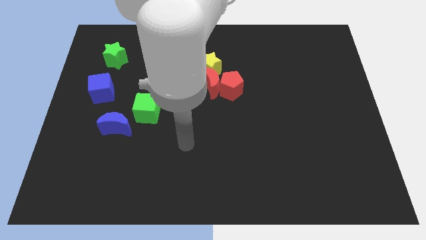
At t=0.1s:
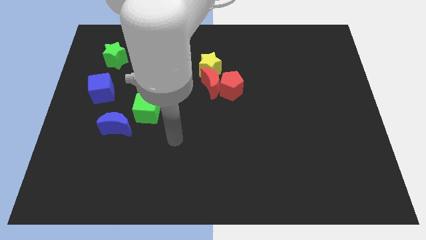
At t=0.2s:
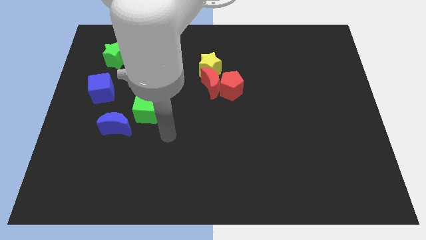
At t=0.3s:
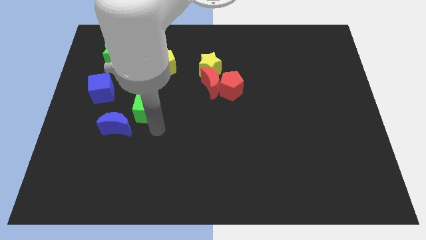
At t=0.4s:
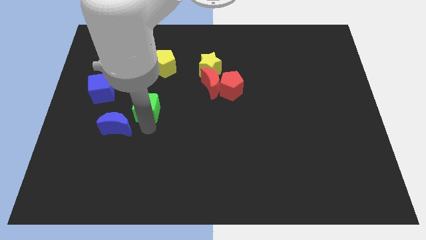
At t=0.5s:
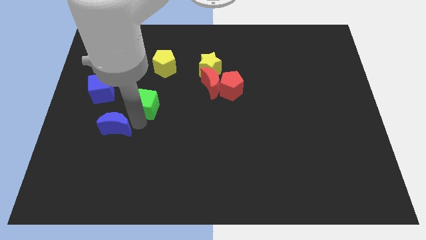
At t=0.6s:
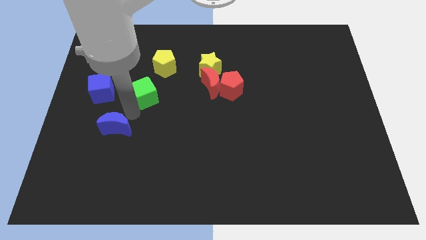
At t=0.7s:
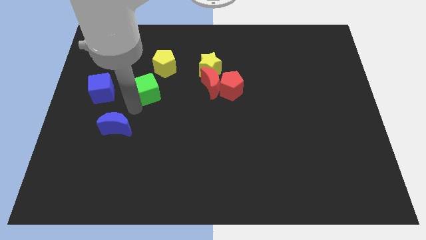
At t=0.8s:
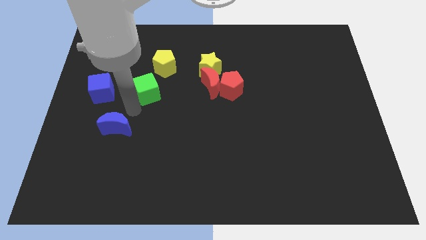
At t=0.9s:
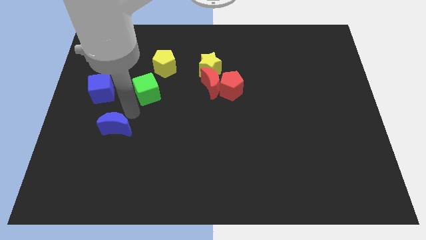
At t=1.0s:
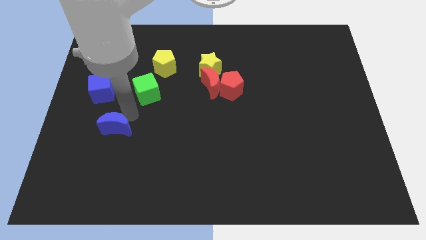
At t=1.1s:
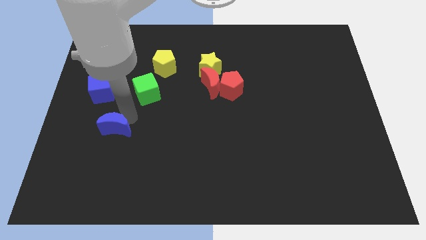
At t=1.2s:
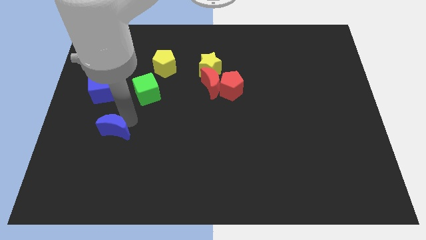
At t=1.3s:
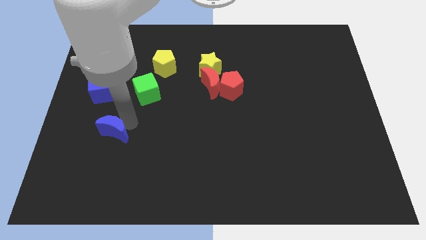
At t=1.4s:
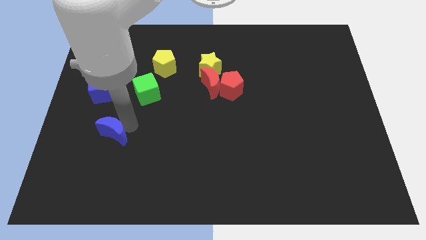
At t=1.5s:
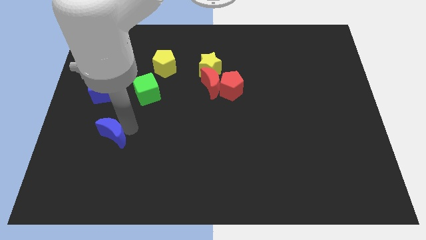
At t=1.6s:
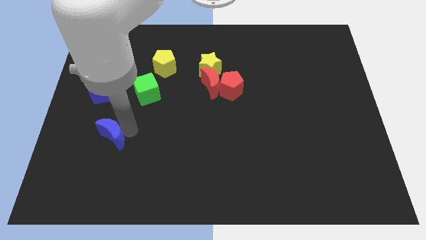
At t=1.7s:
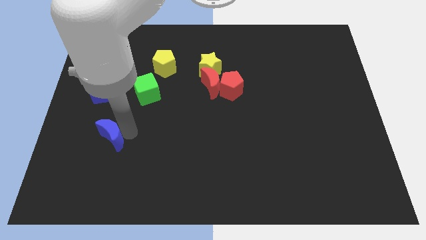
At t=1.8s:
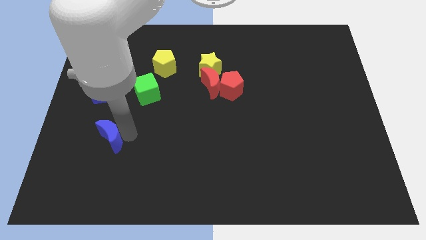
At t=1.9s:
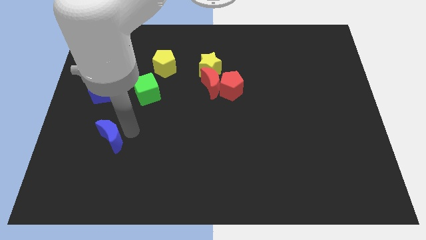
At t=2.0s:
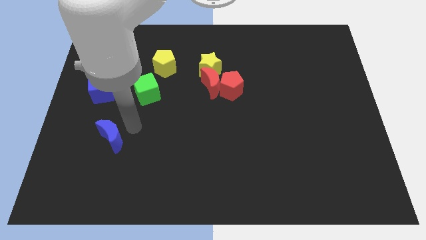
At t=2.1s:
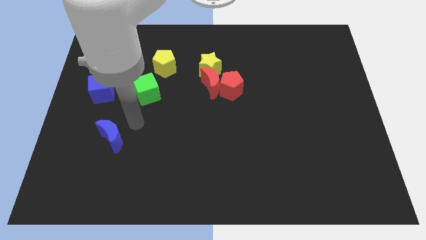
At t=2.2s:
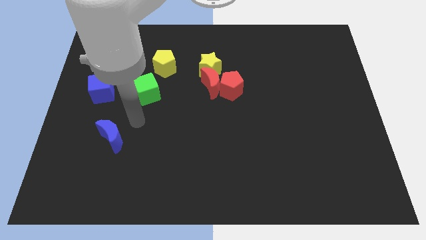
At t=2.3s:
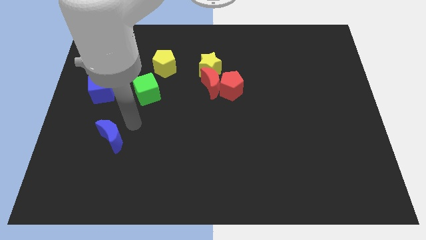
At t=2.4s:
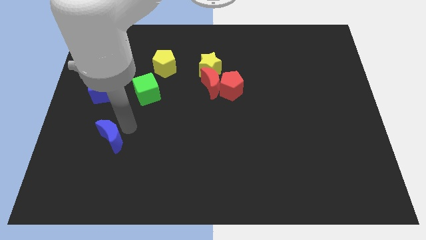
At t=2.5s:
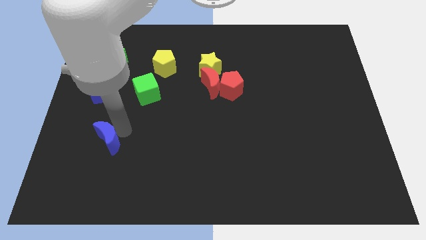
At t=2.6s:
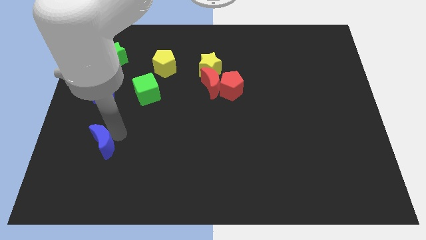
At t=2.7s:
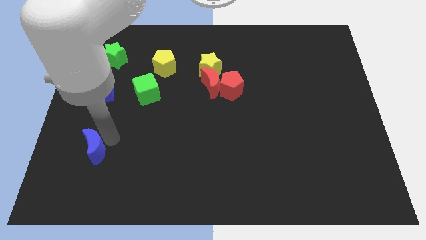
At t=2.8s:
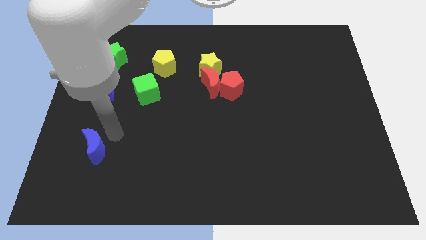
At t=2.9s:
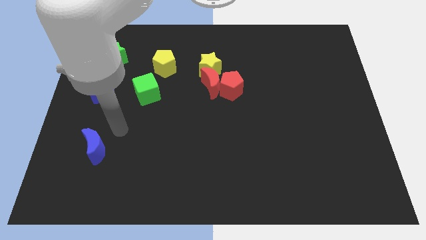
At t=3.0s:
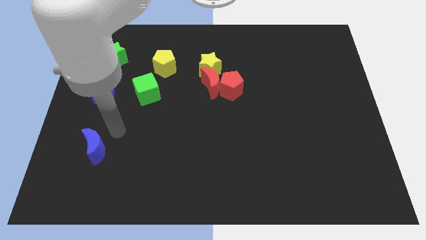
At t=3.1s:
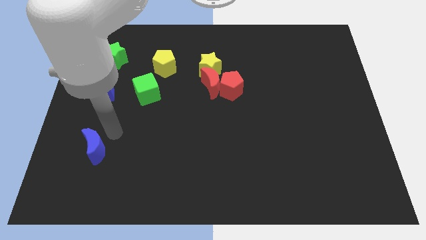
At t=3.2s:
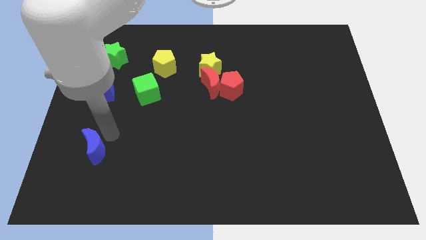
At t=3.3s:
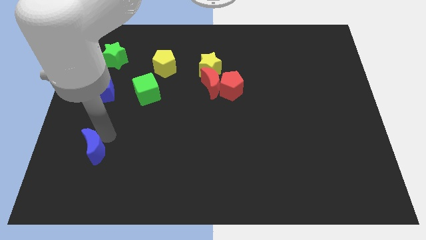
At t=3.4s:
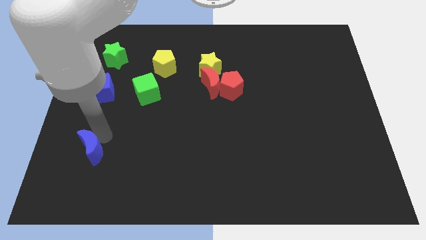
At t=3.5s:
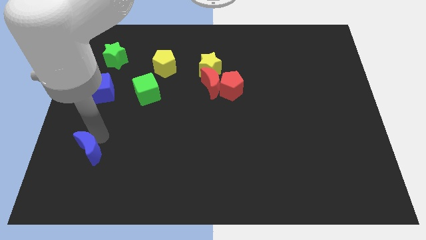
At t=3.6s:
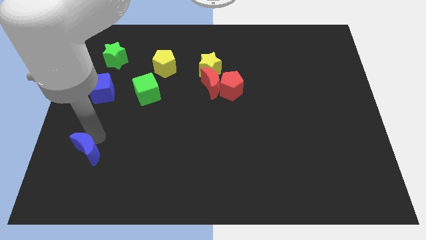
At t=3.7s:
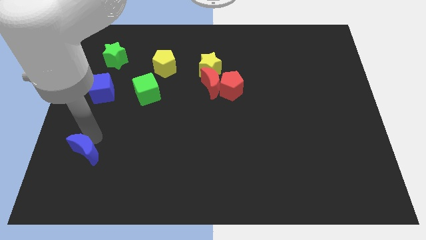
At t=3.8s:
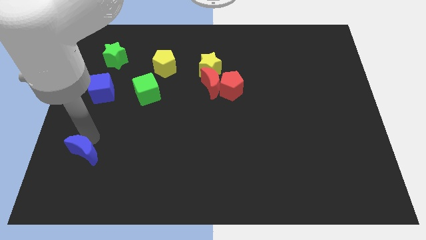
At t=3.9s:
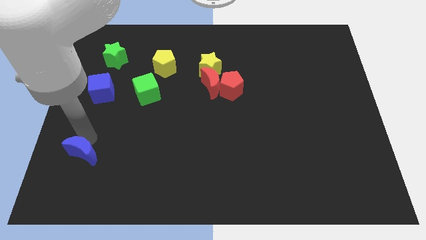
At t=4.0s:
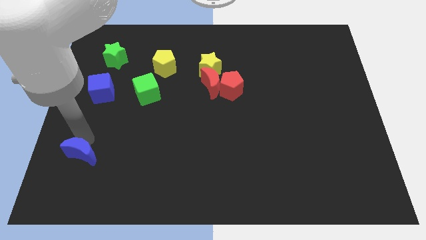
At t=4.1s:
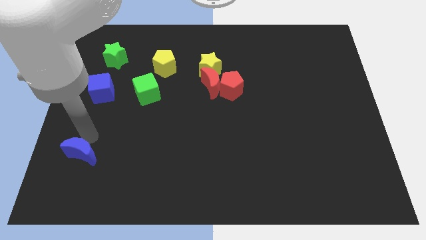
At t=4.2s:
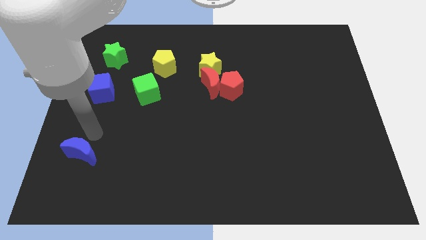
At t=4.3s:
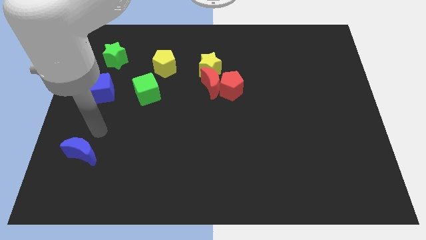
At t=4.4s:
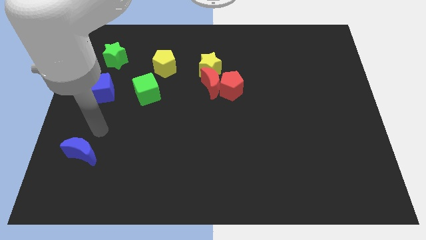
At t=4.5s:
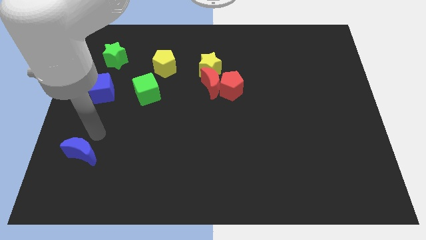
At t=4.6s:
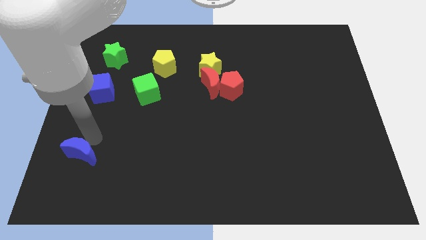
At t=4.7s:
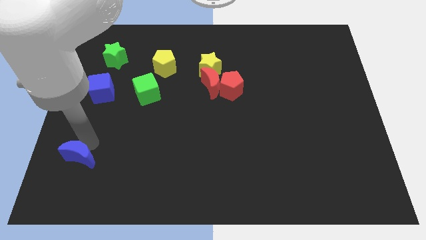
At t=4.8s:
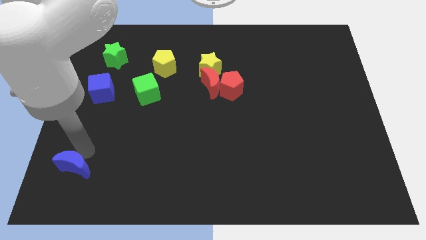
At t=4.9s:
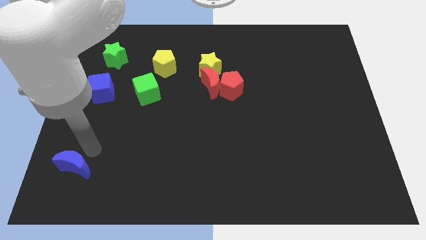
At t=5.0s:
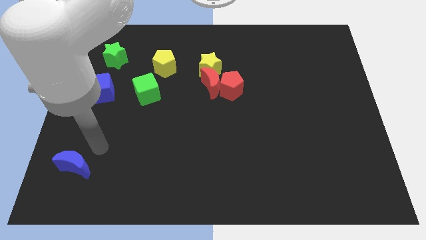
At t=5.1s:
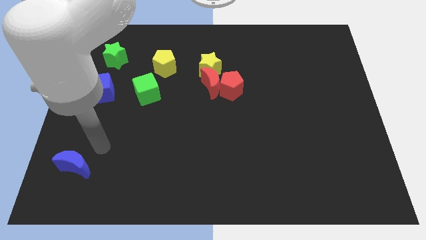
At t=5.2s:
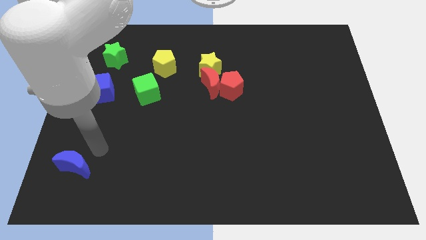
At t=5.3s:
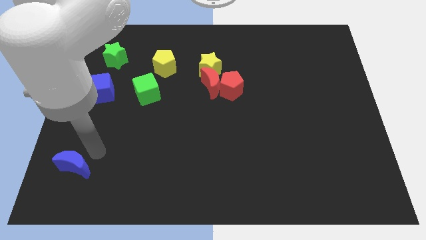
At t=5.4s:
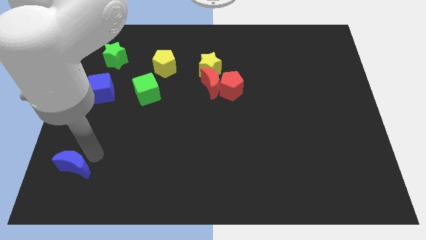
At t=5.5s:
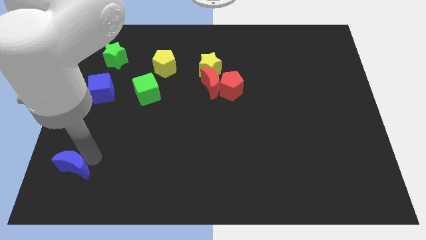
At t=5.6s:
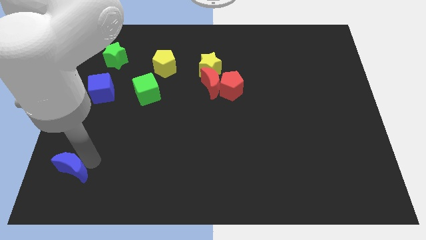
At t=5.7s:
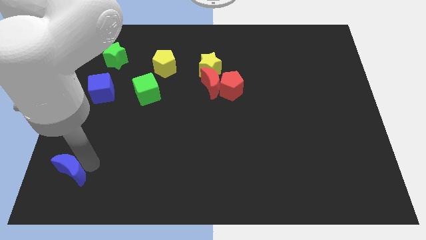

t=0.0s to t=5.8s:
push the blue moon to the bottom left of the board
